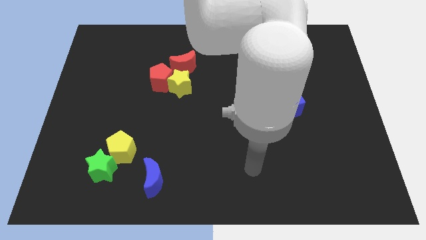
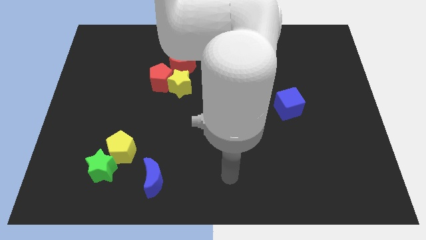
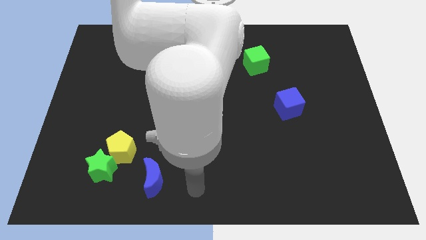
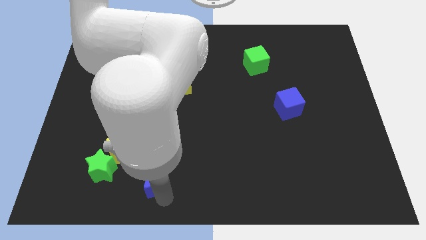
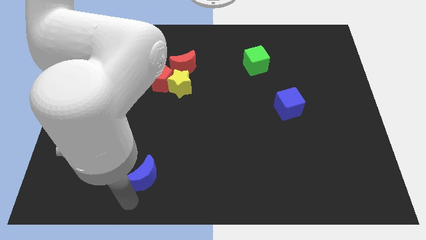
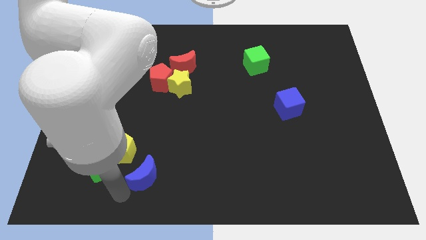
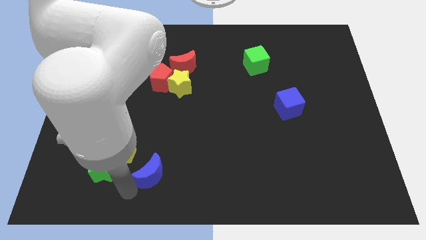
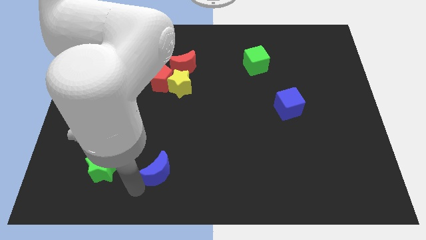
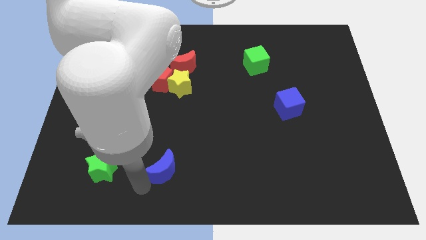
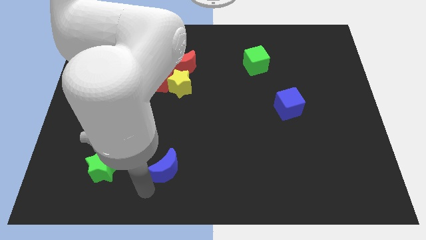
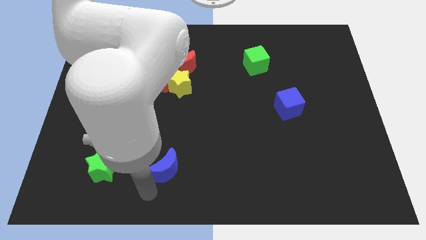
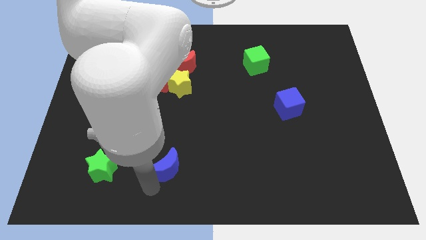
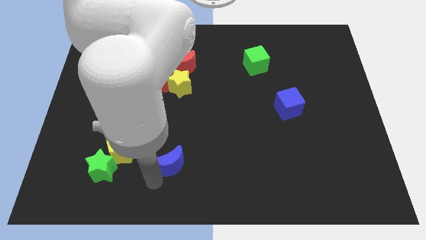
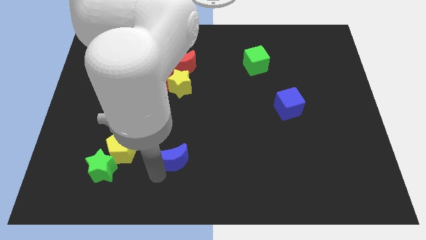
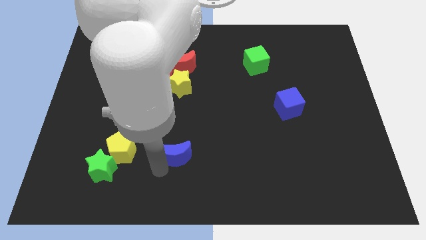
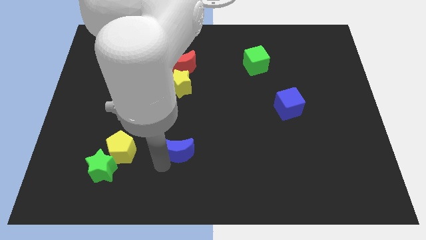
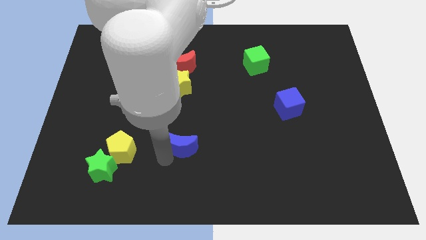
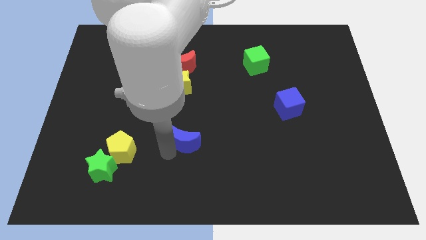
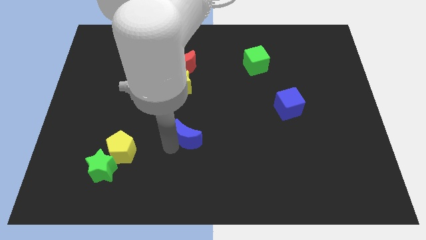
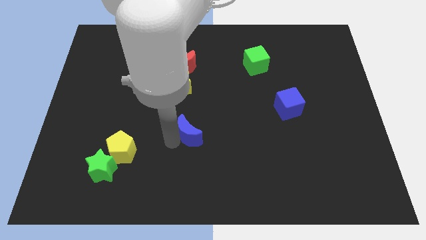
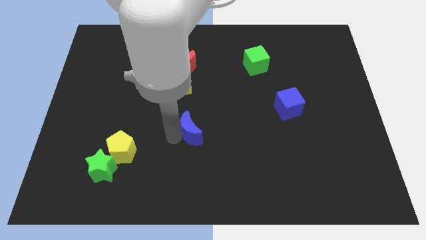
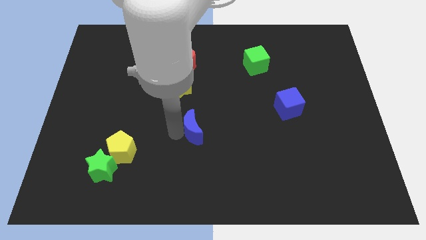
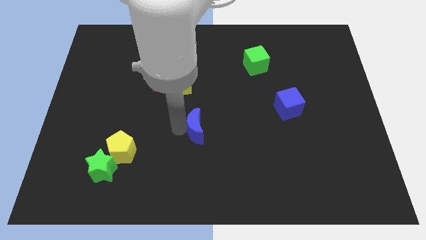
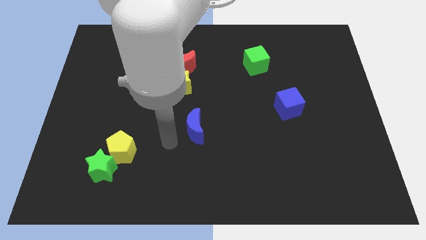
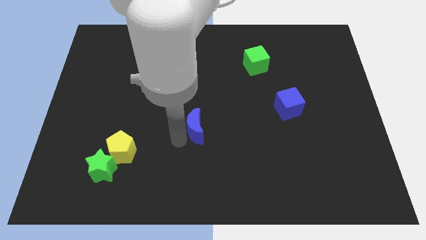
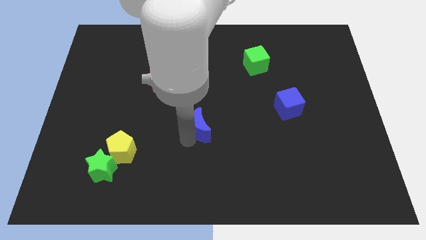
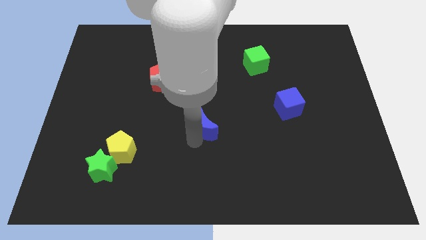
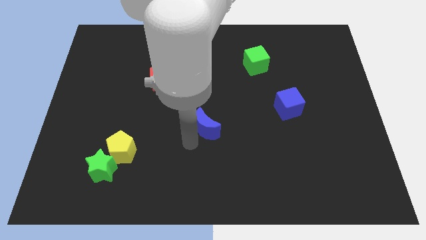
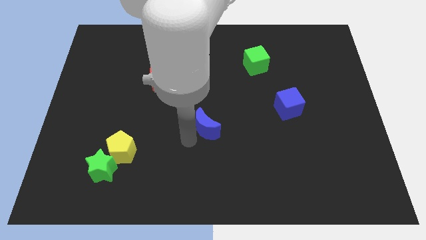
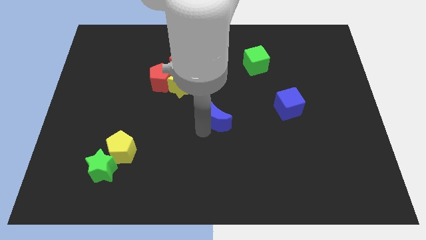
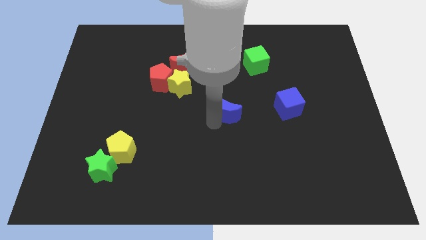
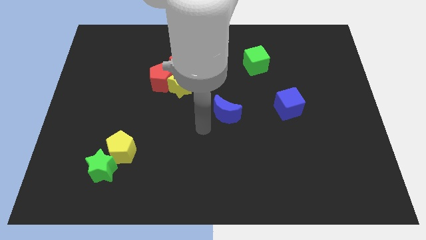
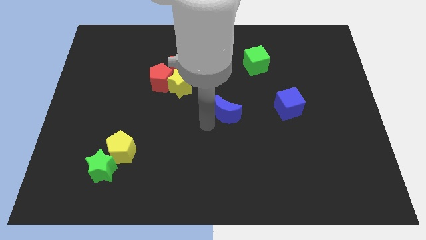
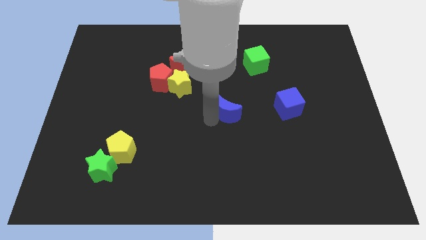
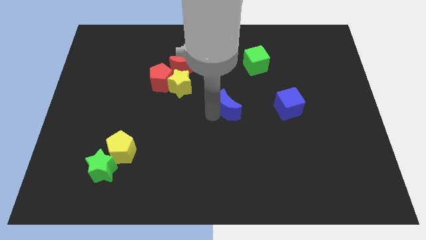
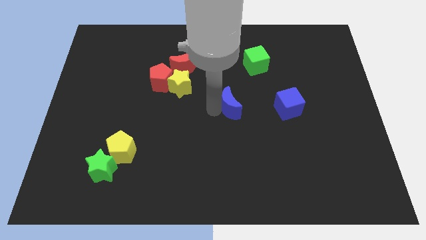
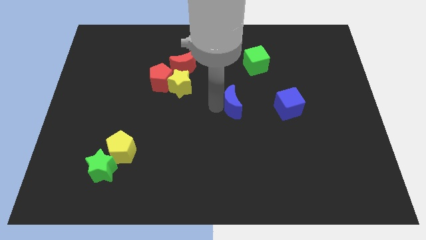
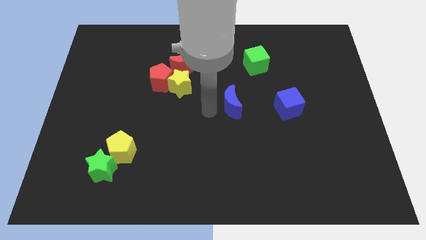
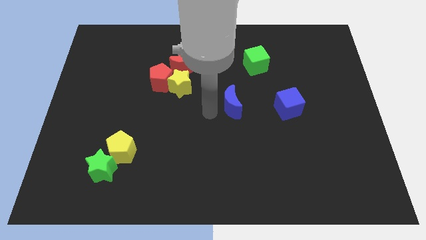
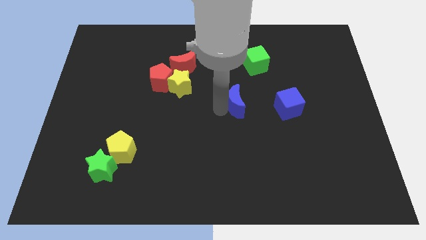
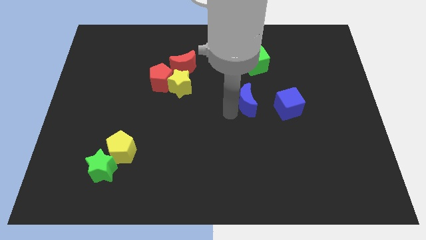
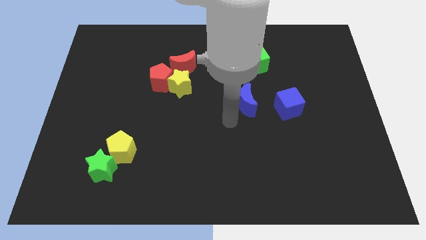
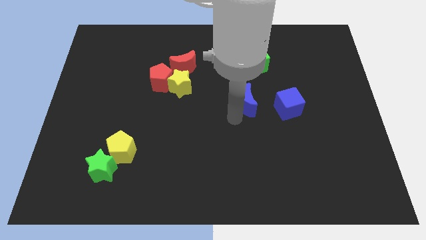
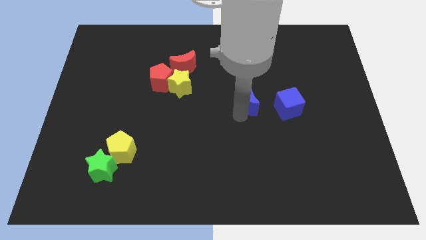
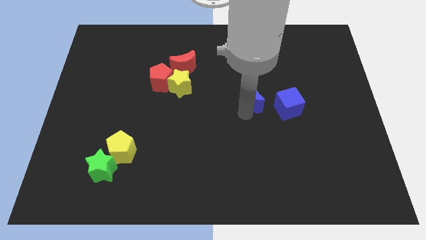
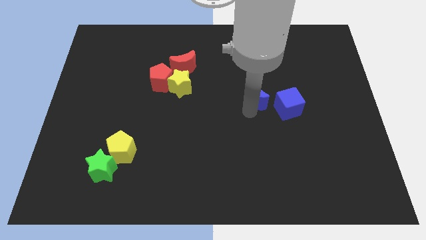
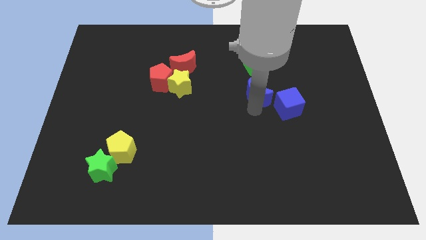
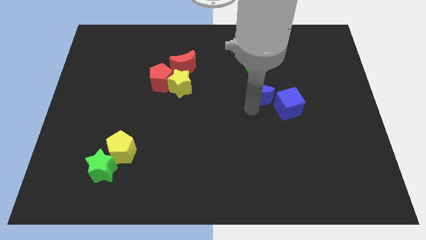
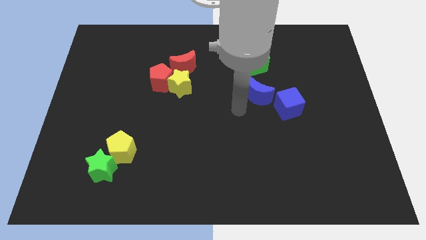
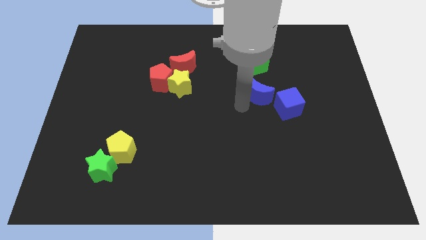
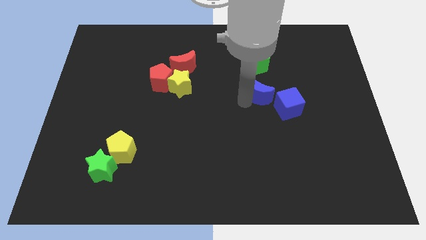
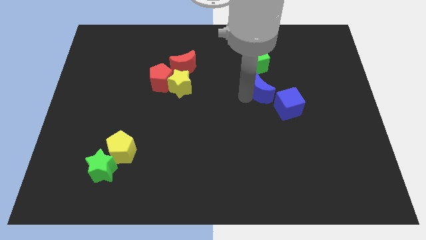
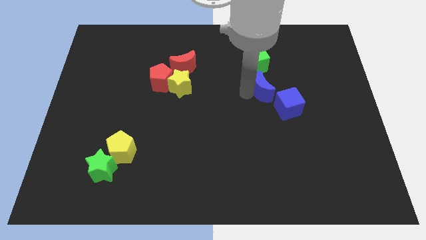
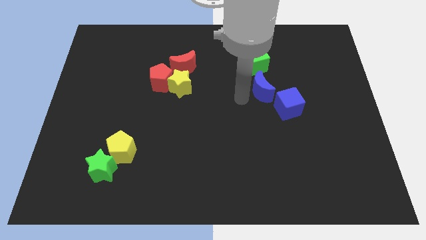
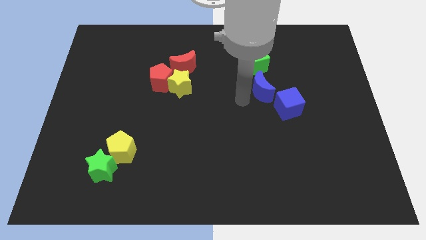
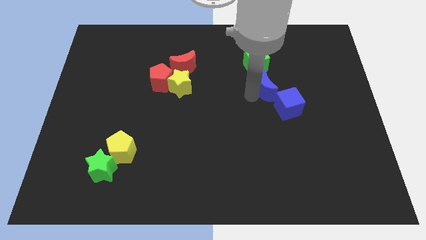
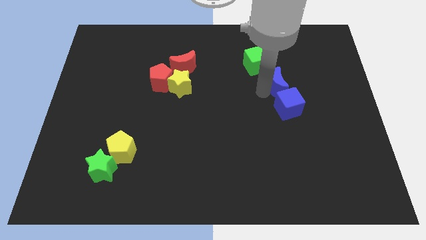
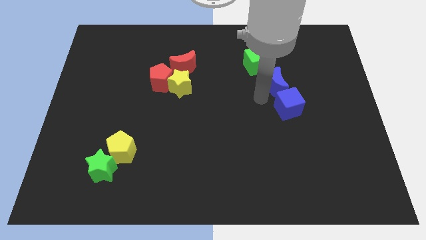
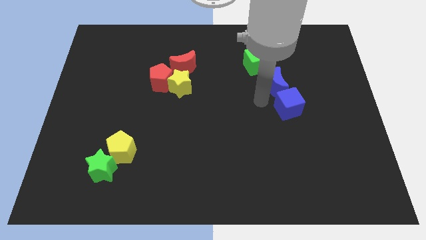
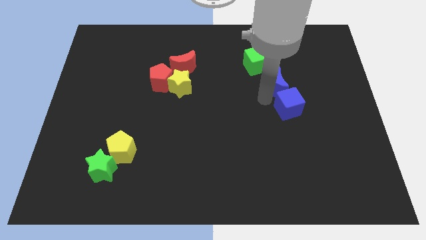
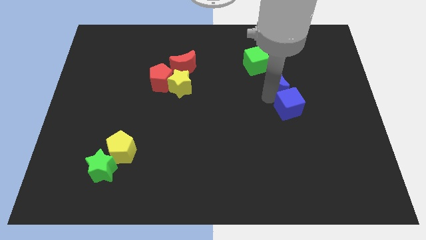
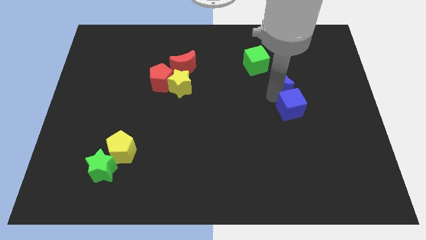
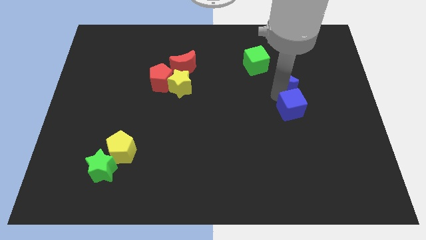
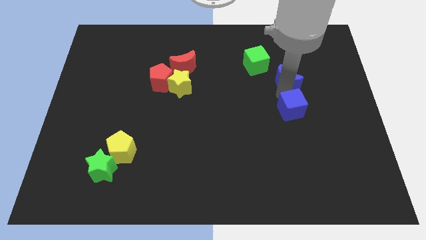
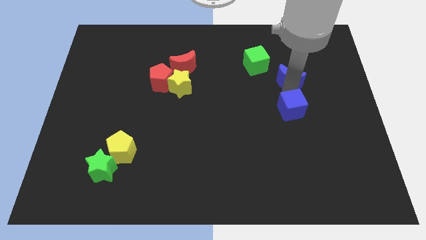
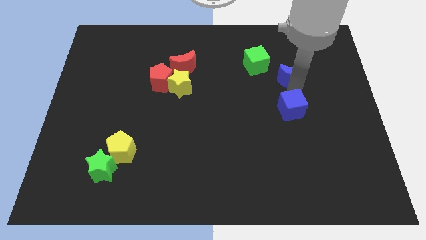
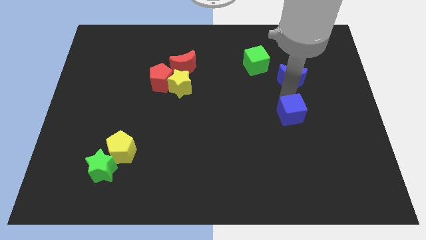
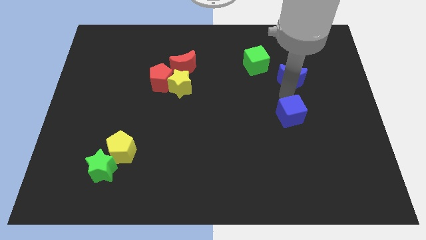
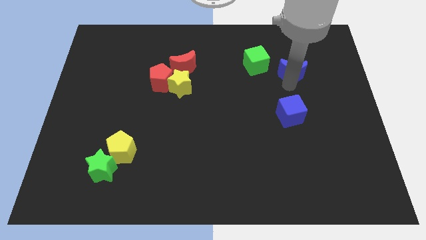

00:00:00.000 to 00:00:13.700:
slide the blue moon to the right side of the green cube

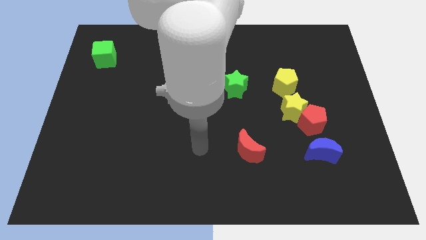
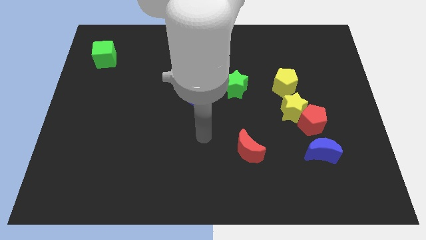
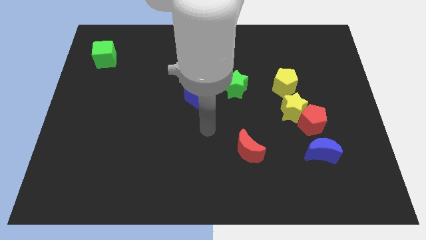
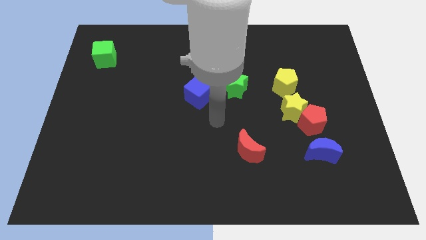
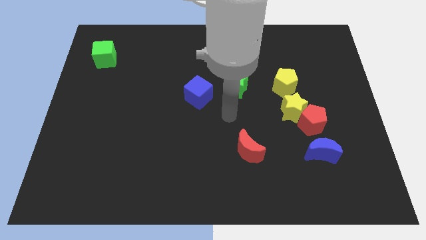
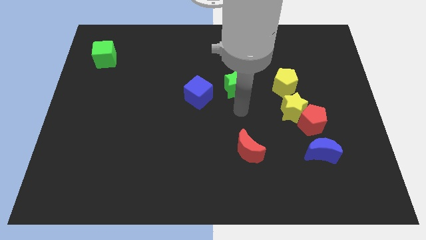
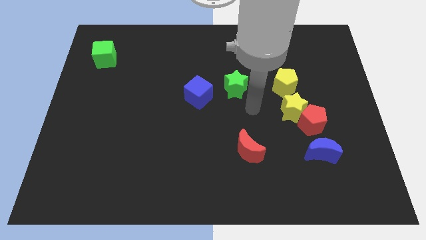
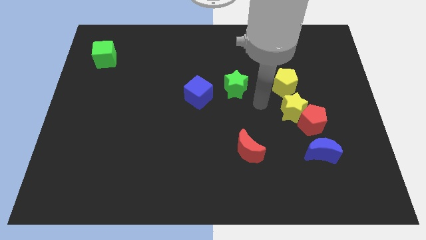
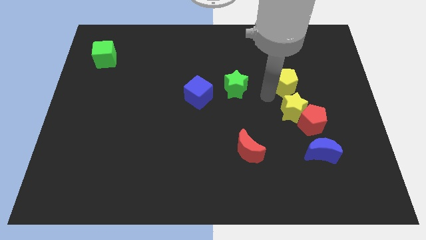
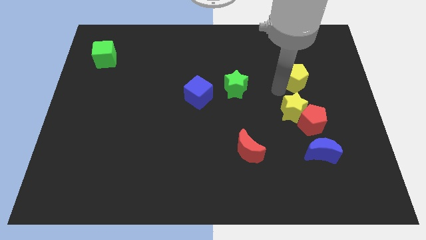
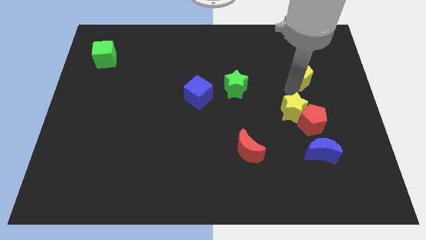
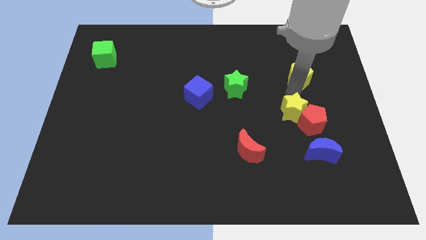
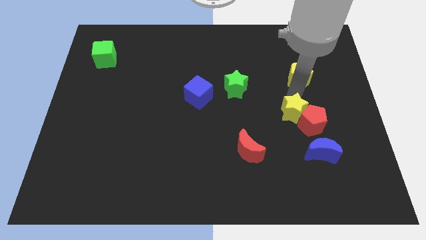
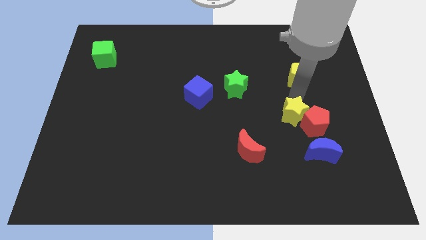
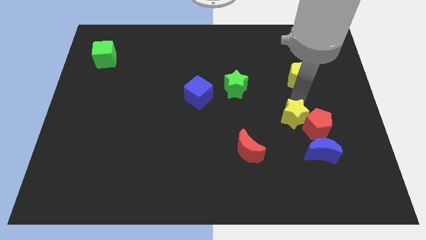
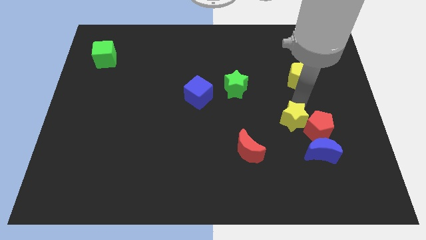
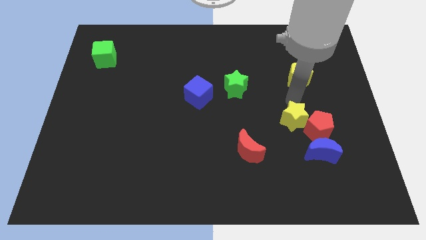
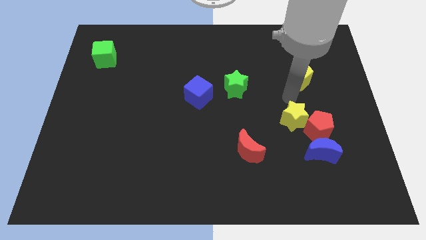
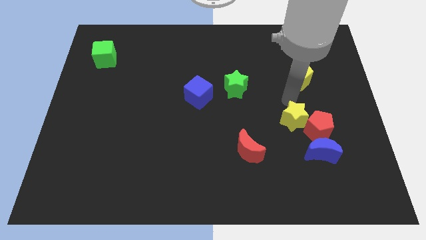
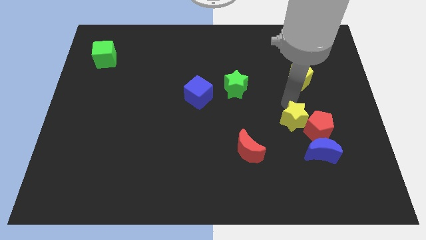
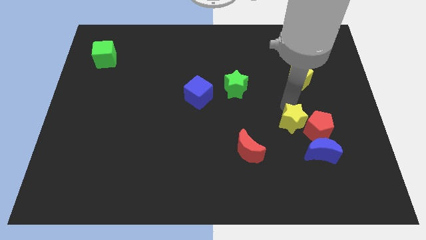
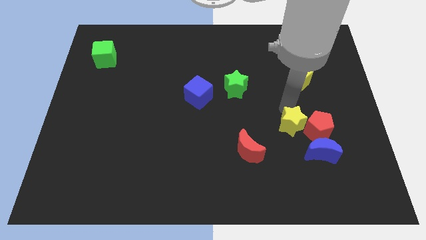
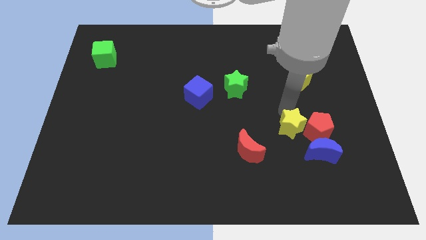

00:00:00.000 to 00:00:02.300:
slide the yellow star diagonally down and to the left of the red pentagon
